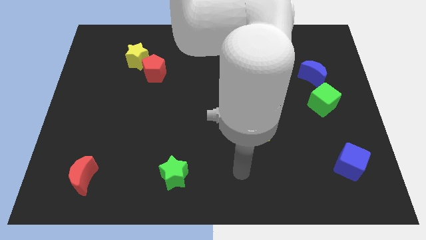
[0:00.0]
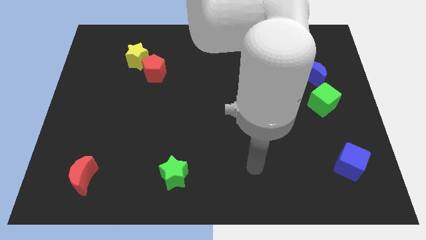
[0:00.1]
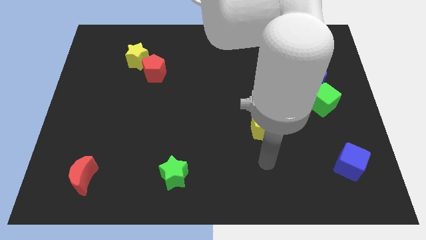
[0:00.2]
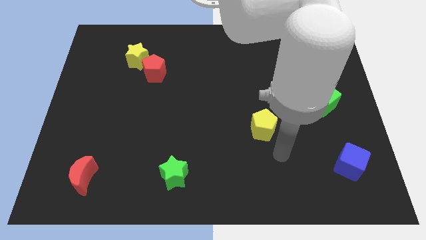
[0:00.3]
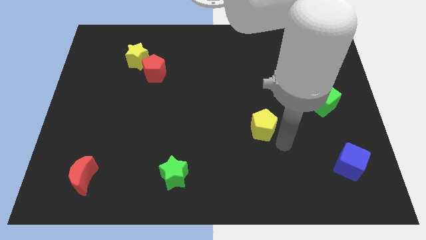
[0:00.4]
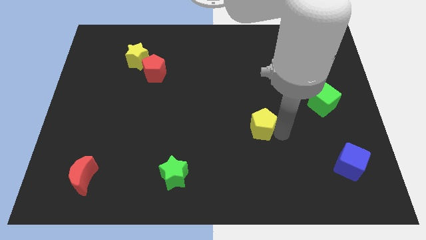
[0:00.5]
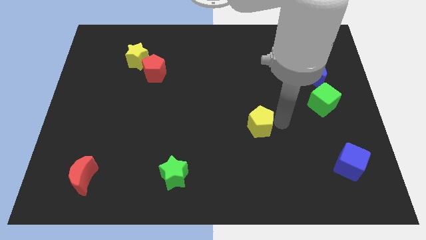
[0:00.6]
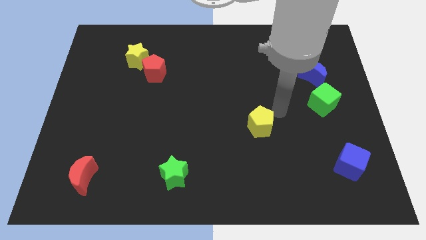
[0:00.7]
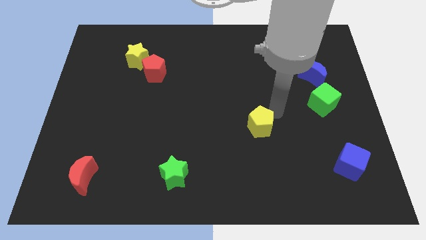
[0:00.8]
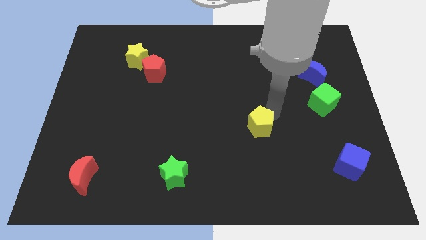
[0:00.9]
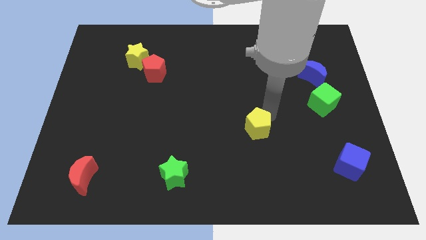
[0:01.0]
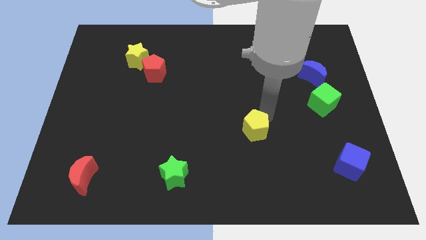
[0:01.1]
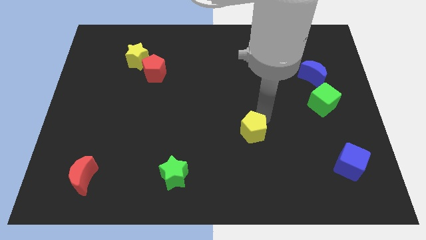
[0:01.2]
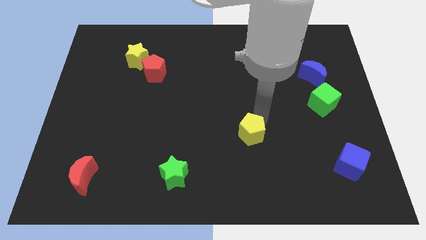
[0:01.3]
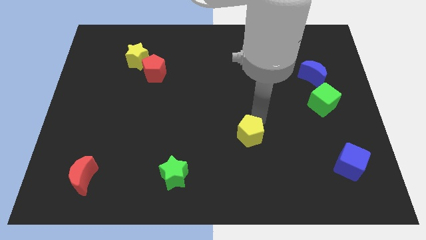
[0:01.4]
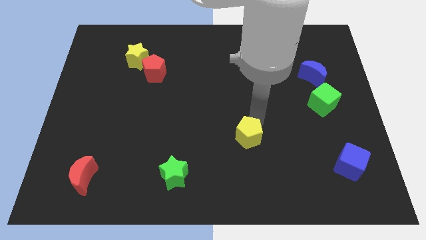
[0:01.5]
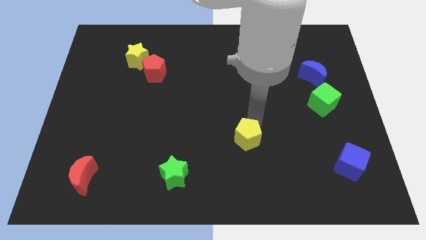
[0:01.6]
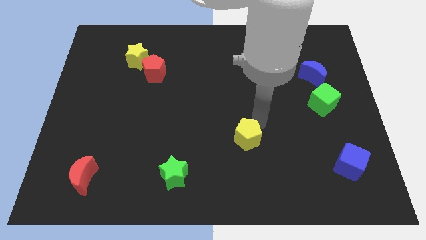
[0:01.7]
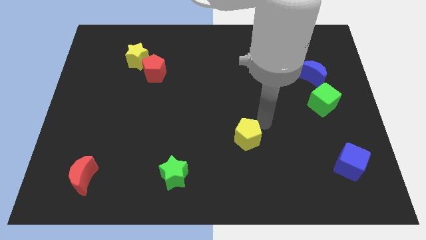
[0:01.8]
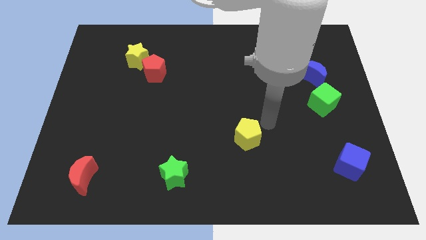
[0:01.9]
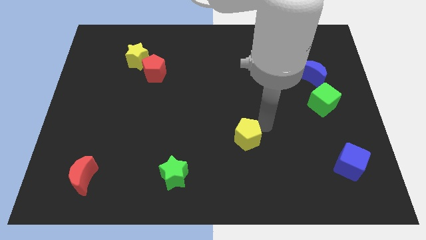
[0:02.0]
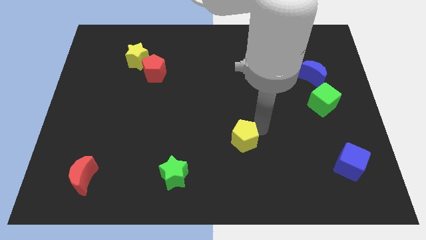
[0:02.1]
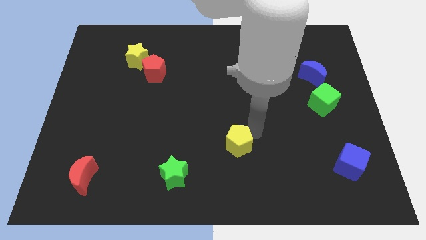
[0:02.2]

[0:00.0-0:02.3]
slightly push the yellow pentagon downwards and left

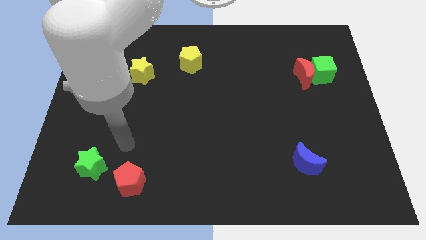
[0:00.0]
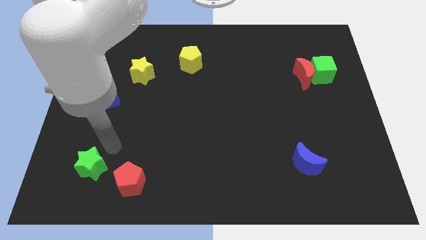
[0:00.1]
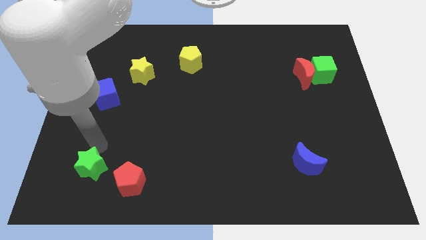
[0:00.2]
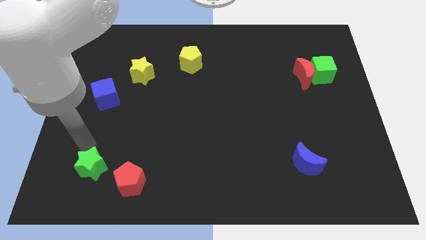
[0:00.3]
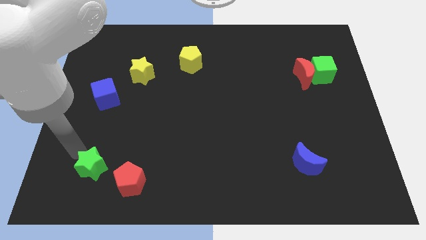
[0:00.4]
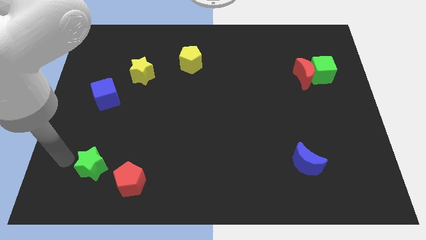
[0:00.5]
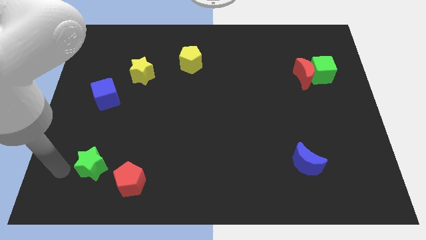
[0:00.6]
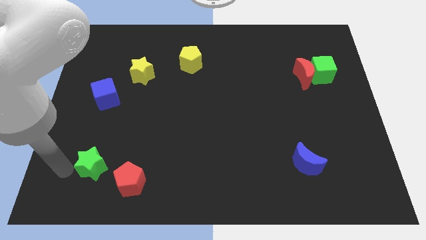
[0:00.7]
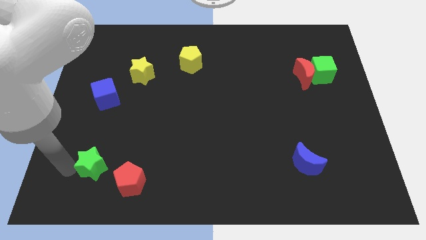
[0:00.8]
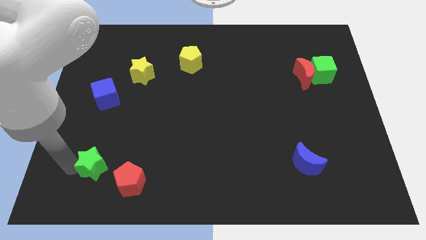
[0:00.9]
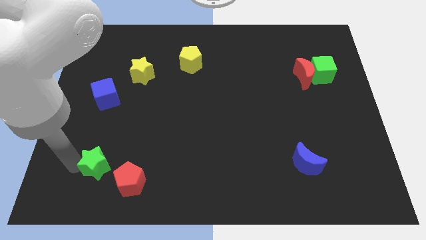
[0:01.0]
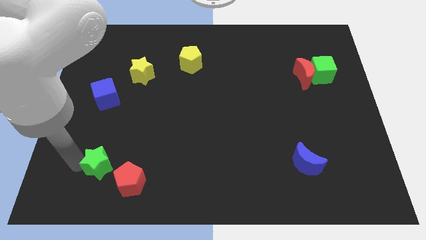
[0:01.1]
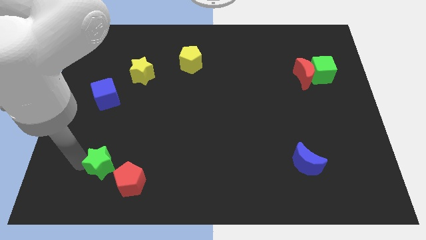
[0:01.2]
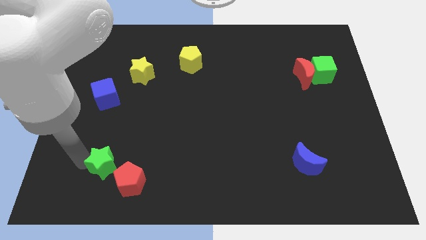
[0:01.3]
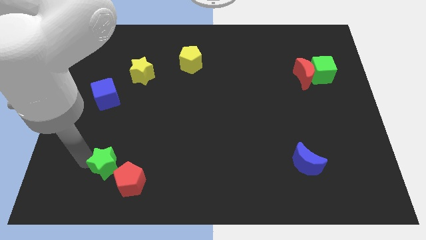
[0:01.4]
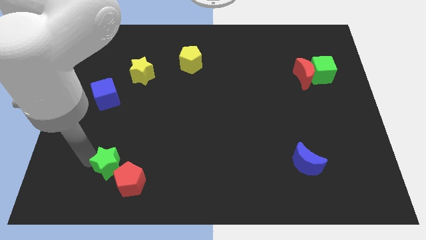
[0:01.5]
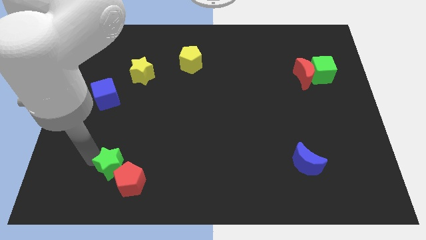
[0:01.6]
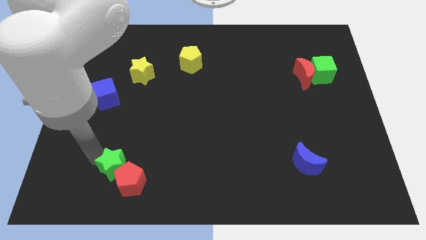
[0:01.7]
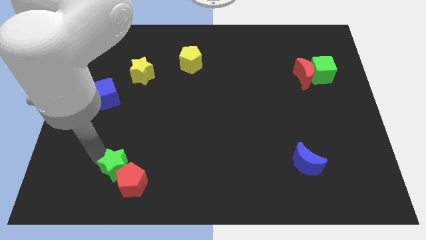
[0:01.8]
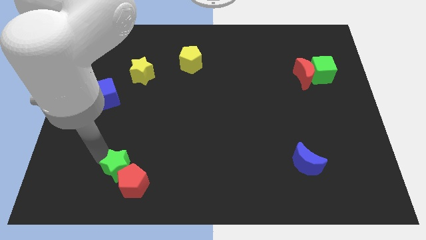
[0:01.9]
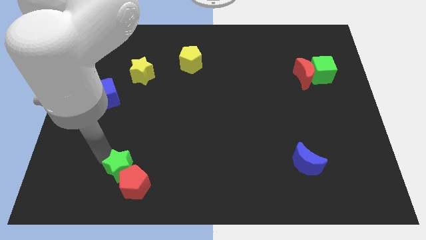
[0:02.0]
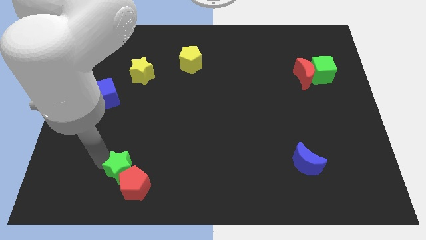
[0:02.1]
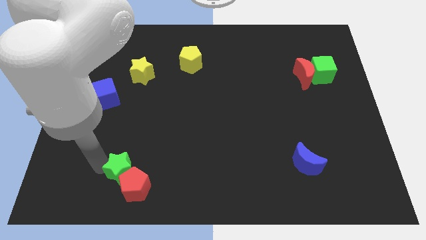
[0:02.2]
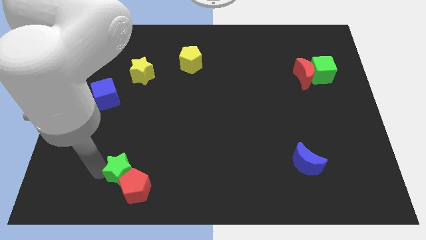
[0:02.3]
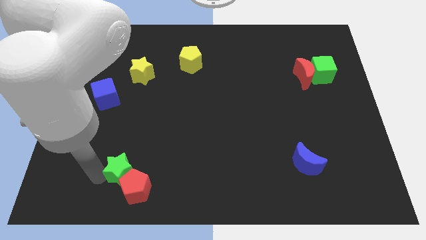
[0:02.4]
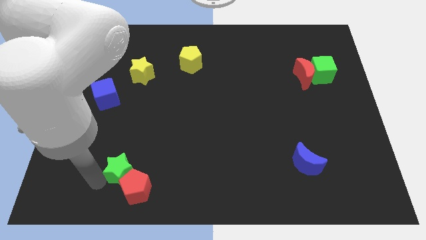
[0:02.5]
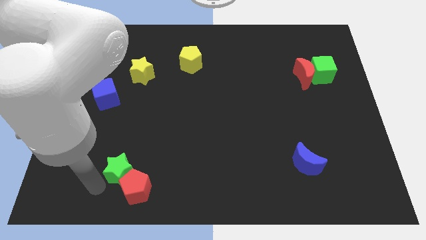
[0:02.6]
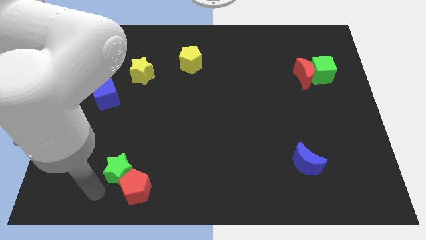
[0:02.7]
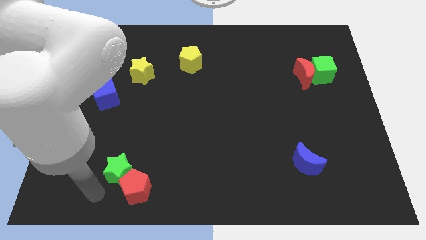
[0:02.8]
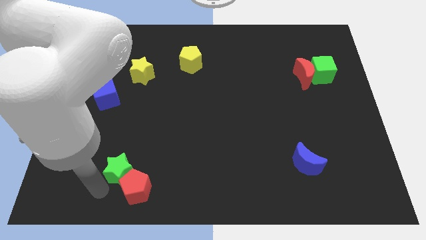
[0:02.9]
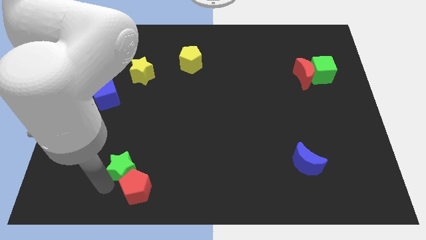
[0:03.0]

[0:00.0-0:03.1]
move the green star a bit to the right

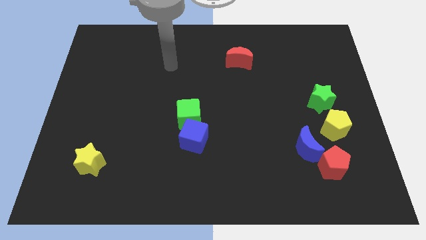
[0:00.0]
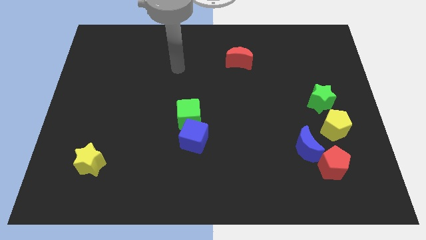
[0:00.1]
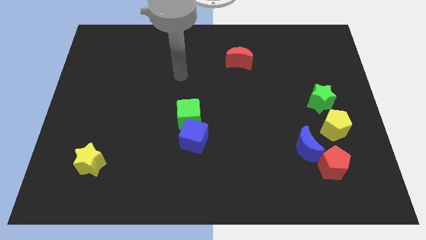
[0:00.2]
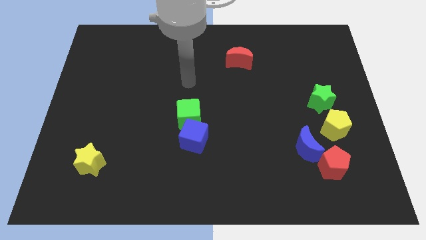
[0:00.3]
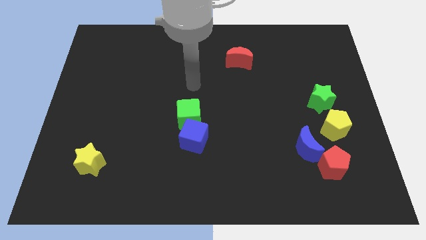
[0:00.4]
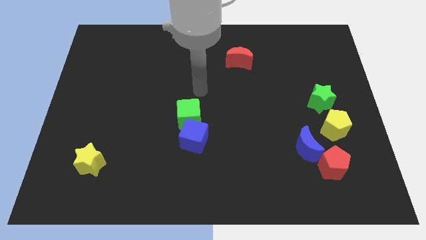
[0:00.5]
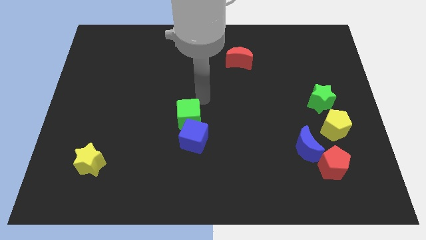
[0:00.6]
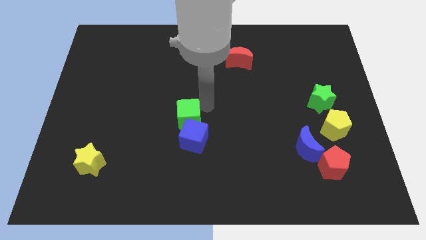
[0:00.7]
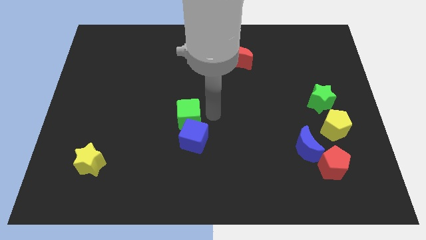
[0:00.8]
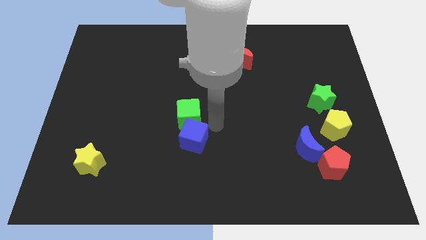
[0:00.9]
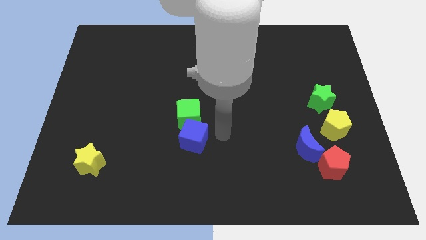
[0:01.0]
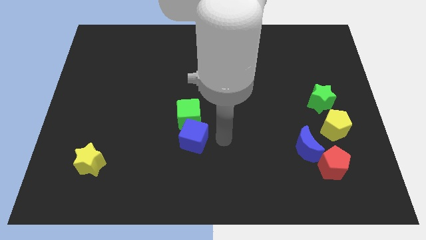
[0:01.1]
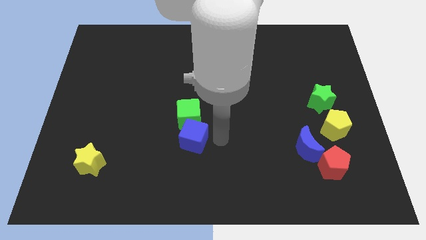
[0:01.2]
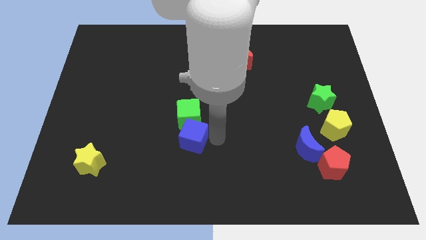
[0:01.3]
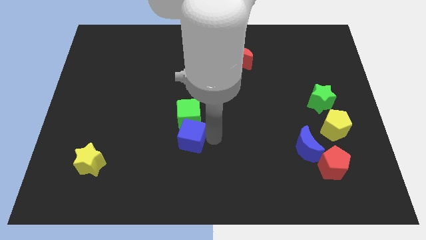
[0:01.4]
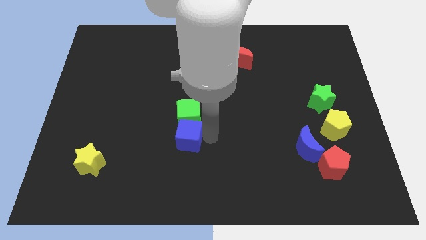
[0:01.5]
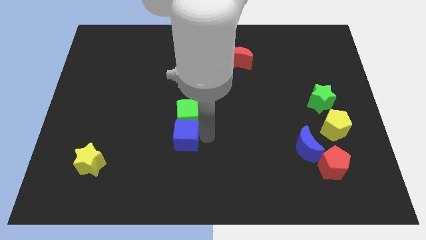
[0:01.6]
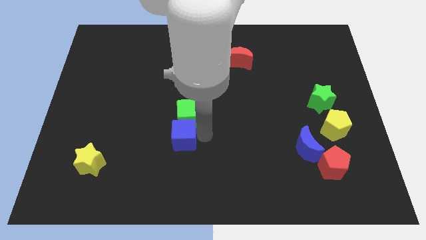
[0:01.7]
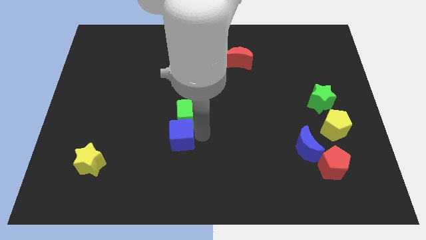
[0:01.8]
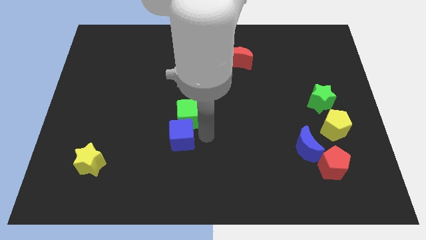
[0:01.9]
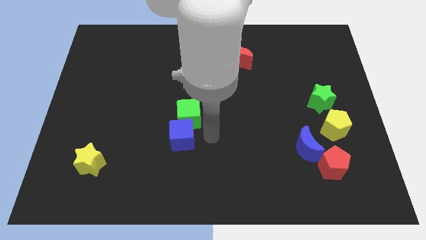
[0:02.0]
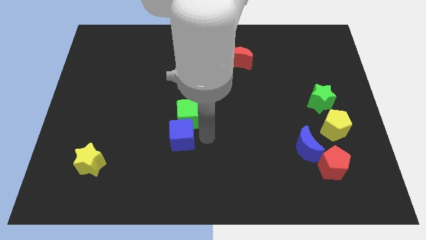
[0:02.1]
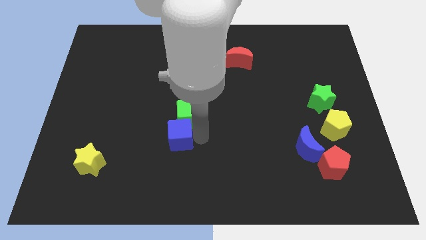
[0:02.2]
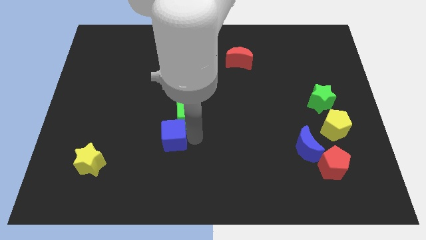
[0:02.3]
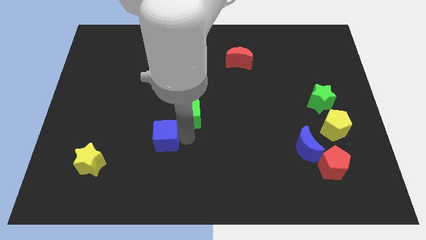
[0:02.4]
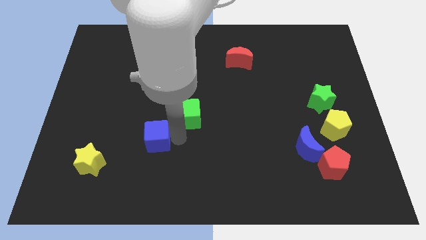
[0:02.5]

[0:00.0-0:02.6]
slightly push the blue cube to the left

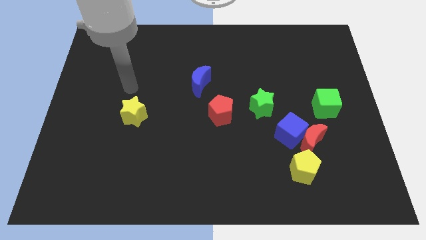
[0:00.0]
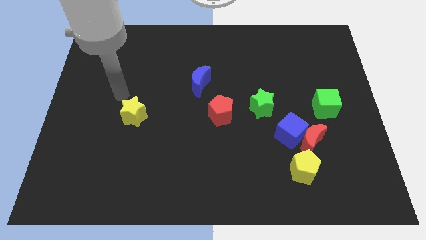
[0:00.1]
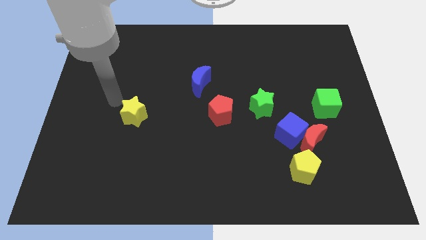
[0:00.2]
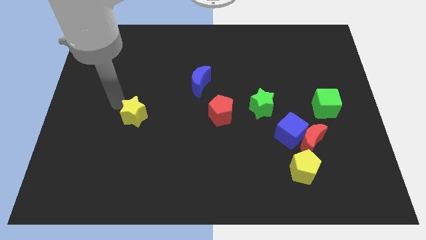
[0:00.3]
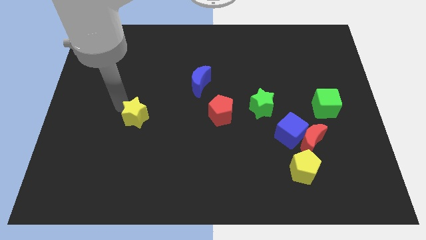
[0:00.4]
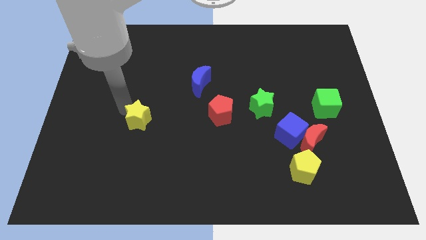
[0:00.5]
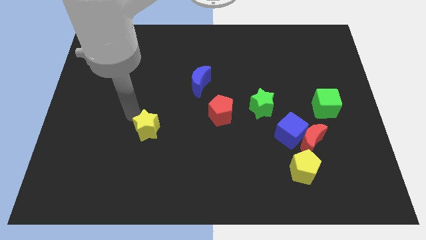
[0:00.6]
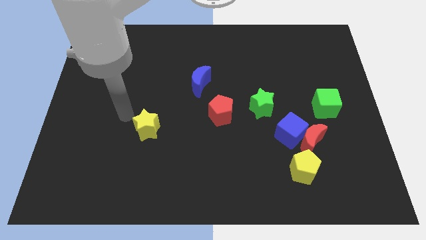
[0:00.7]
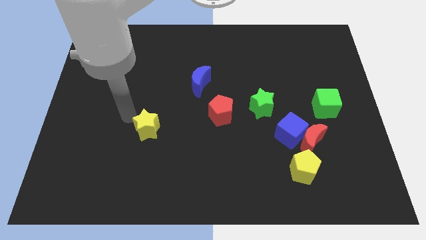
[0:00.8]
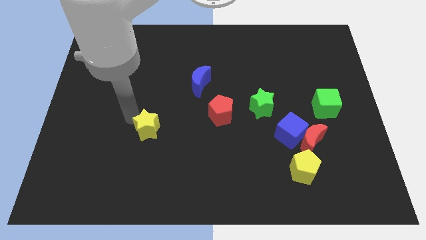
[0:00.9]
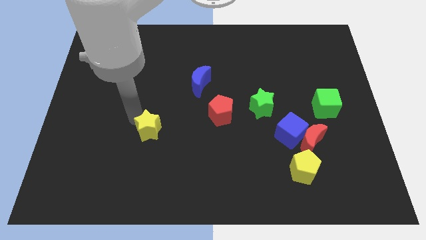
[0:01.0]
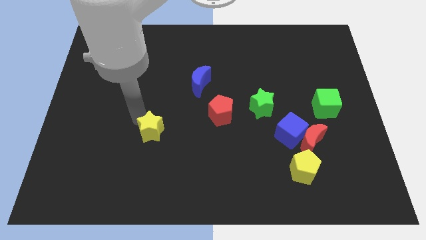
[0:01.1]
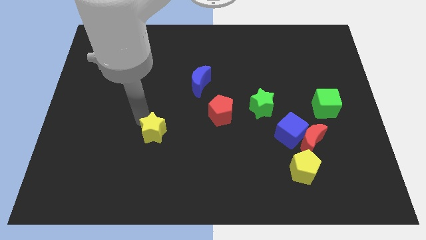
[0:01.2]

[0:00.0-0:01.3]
slide the yellow star somewhat downwards and to the right
